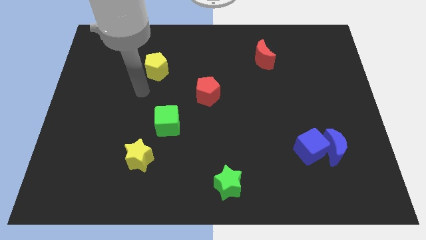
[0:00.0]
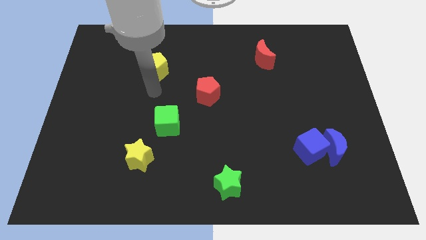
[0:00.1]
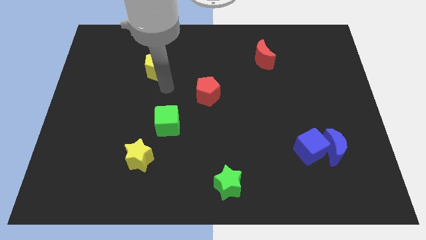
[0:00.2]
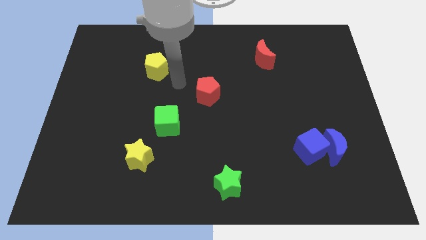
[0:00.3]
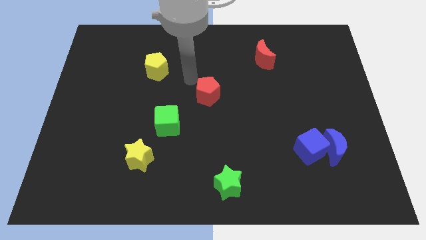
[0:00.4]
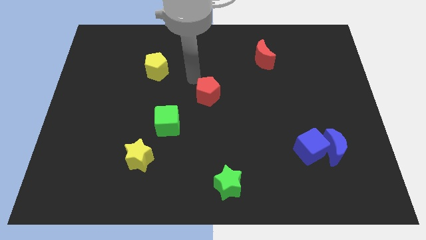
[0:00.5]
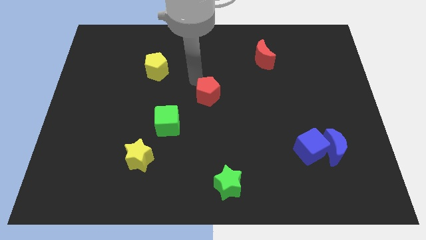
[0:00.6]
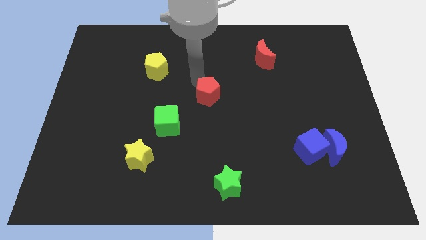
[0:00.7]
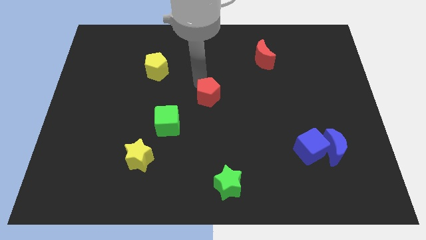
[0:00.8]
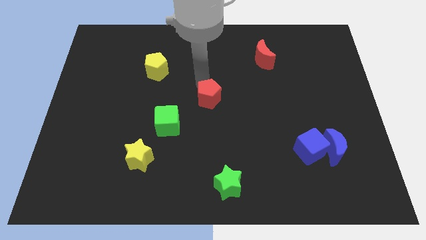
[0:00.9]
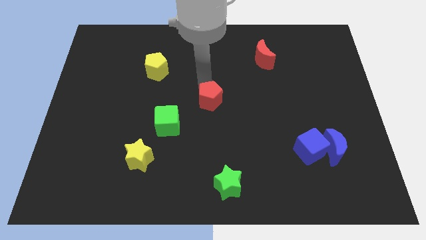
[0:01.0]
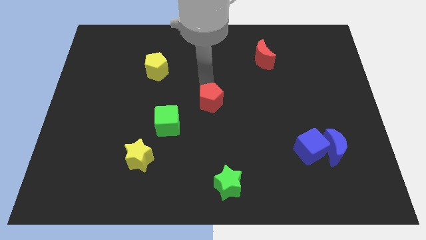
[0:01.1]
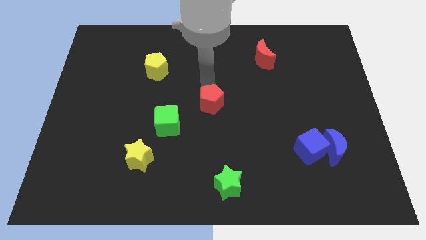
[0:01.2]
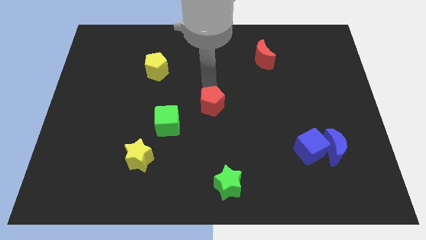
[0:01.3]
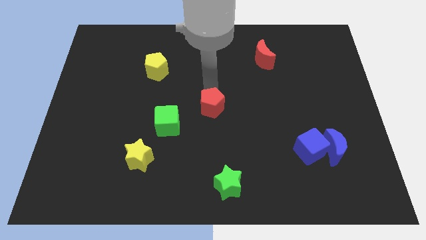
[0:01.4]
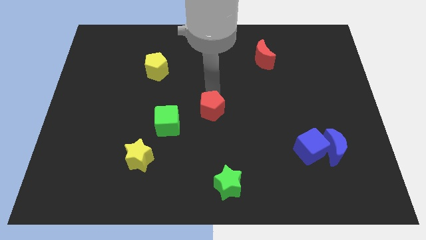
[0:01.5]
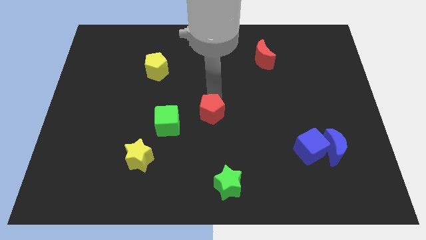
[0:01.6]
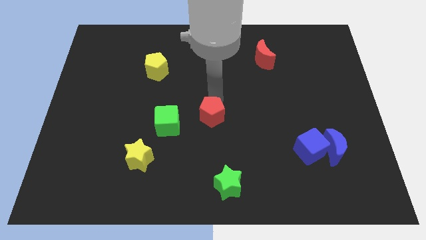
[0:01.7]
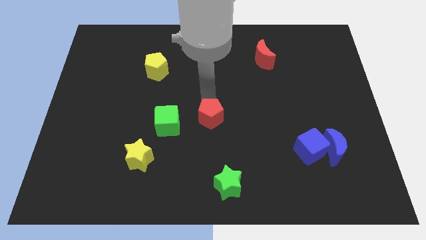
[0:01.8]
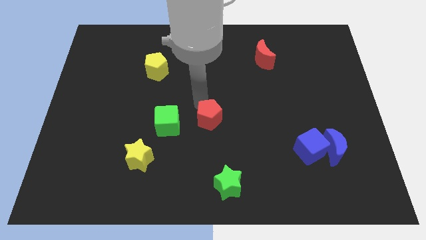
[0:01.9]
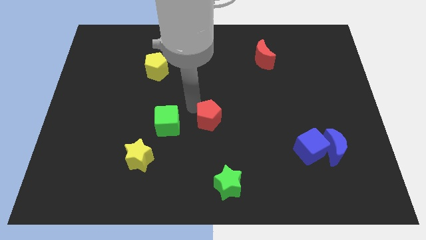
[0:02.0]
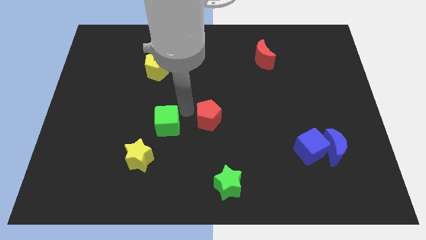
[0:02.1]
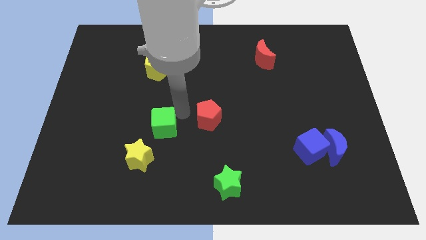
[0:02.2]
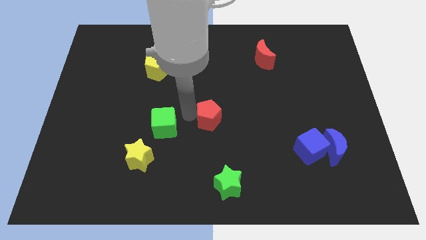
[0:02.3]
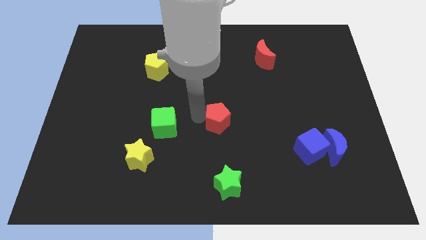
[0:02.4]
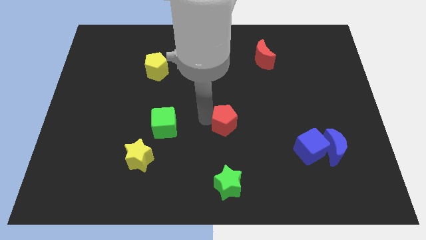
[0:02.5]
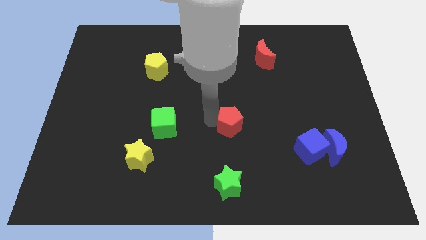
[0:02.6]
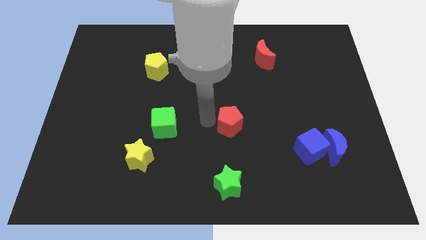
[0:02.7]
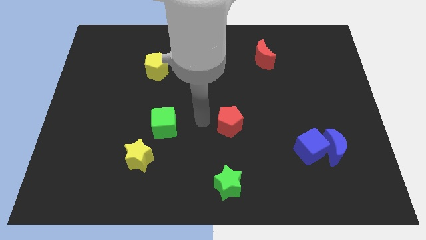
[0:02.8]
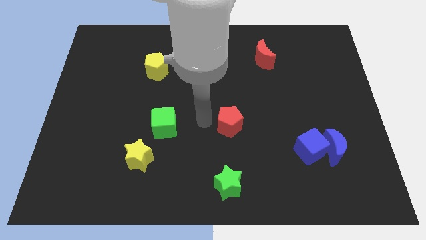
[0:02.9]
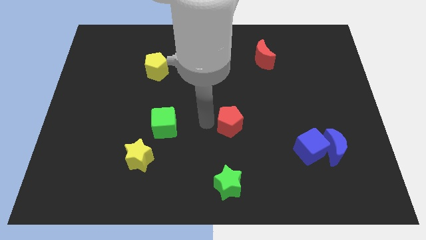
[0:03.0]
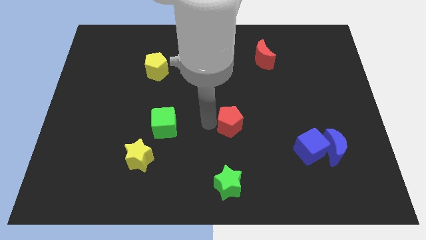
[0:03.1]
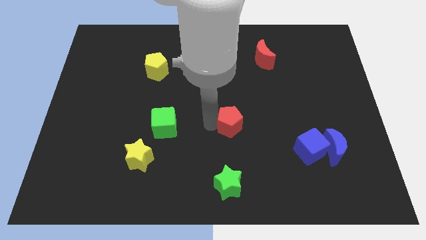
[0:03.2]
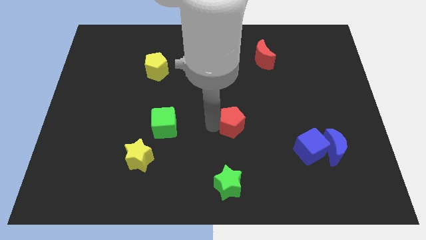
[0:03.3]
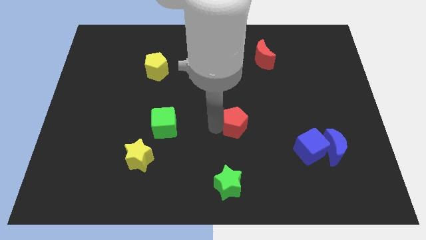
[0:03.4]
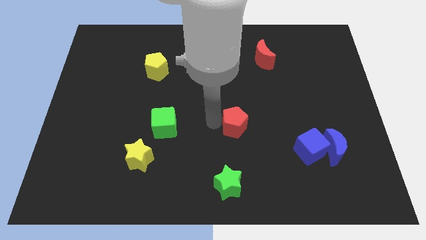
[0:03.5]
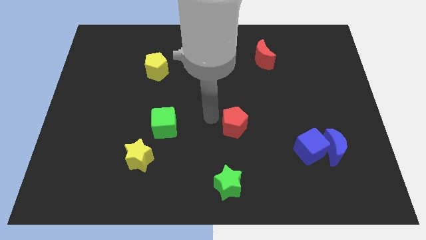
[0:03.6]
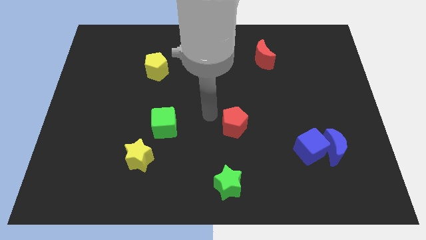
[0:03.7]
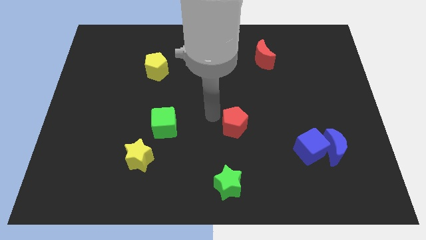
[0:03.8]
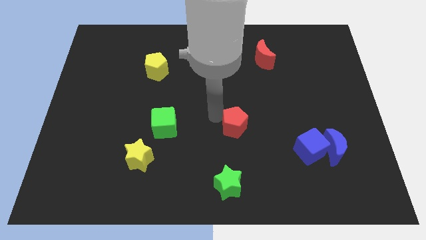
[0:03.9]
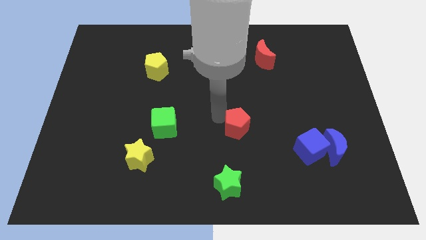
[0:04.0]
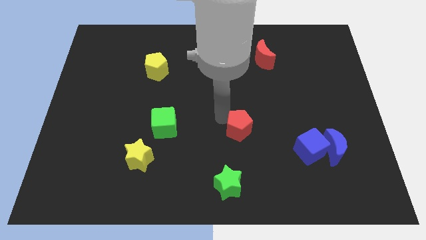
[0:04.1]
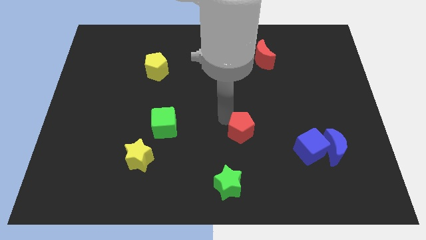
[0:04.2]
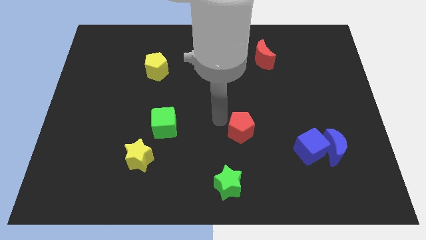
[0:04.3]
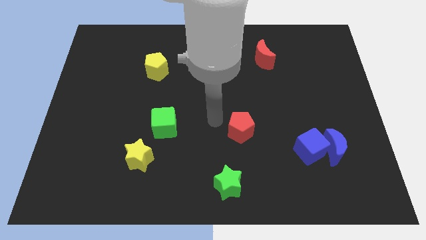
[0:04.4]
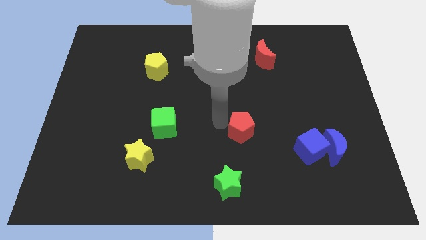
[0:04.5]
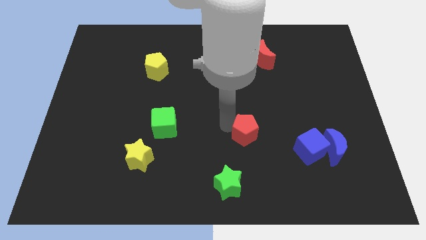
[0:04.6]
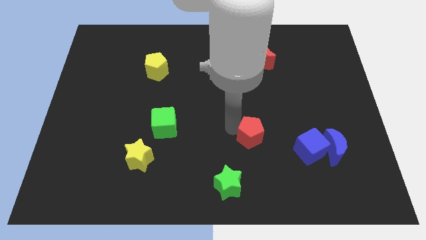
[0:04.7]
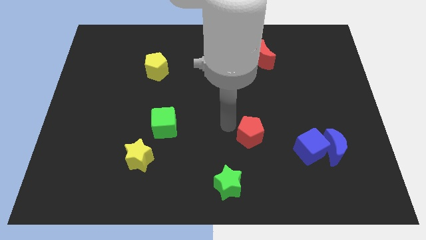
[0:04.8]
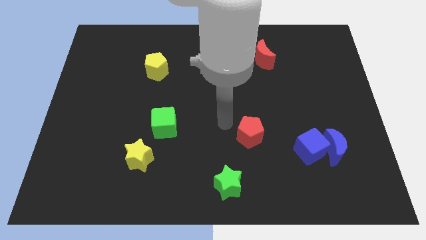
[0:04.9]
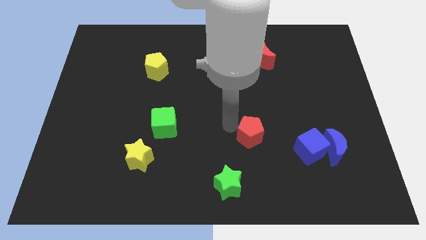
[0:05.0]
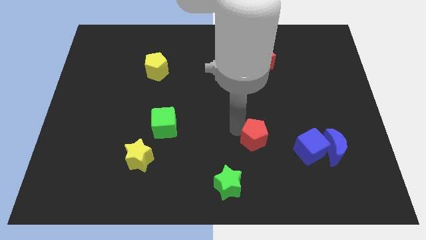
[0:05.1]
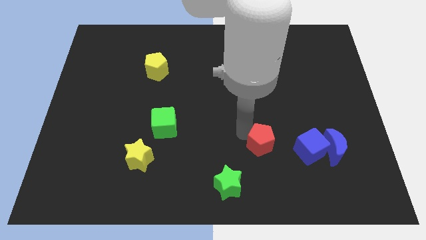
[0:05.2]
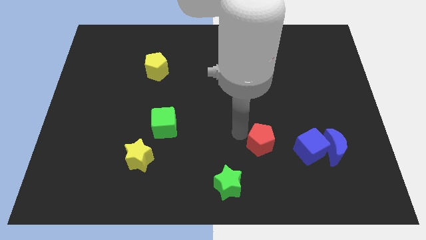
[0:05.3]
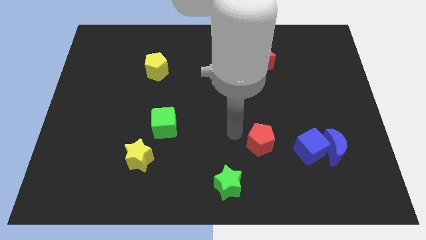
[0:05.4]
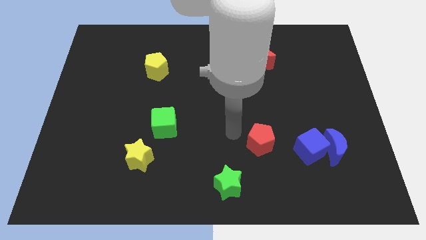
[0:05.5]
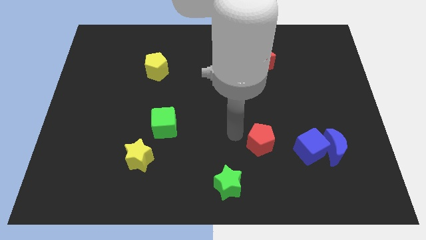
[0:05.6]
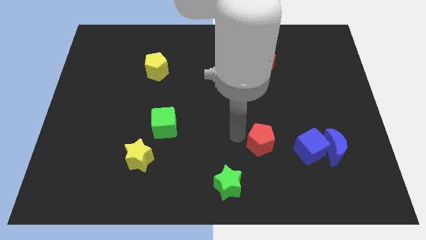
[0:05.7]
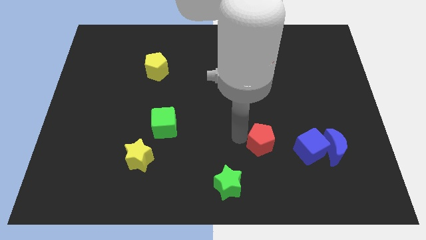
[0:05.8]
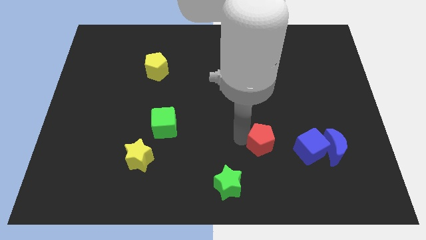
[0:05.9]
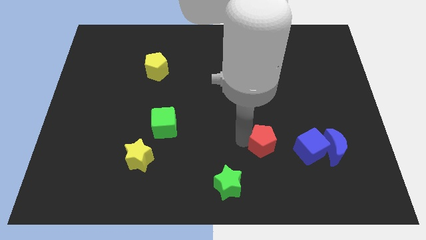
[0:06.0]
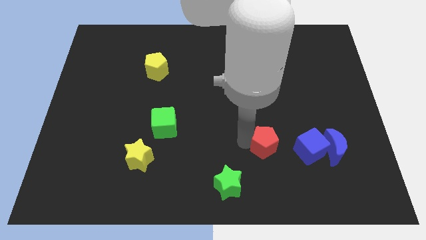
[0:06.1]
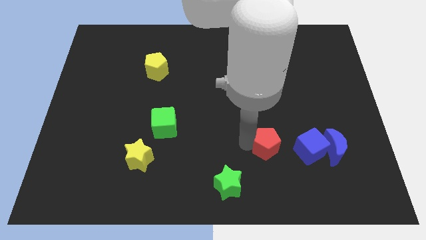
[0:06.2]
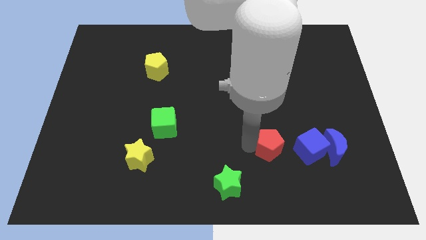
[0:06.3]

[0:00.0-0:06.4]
push the red pentagon down and to the right

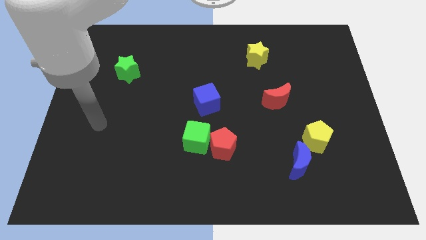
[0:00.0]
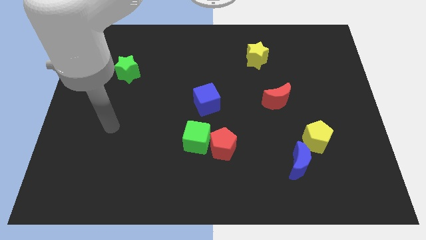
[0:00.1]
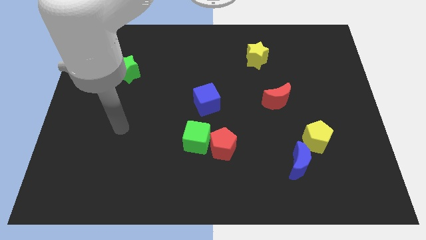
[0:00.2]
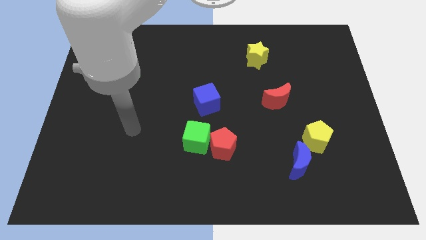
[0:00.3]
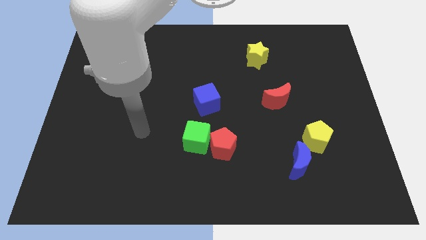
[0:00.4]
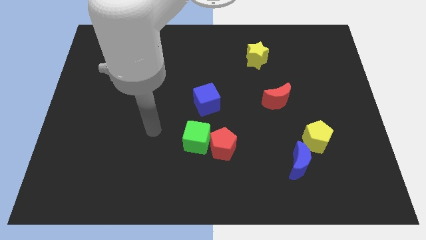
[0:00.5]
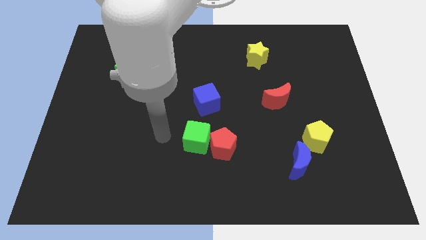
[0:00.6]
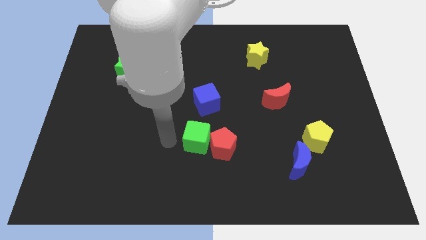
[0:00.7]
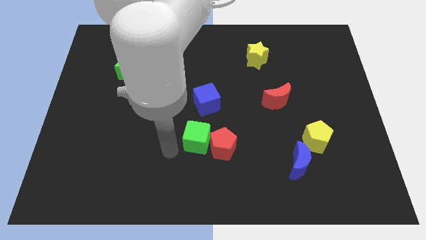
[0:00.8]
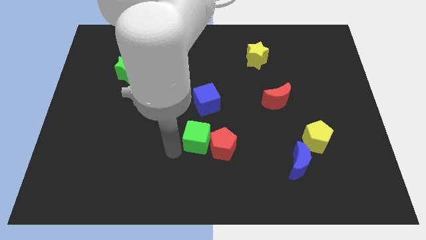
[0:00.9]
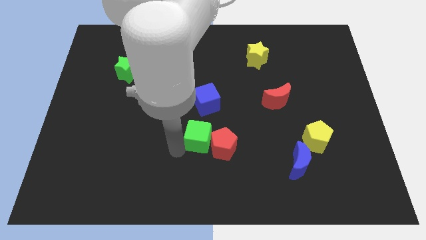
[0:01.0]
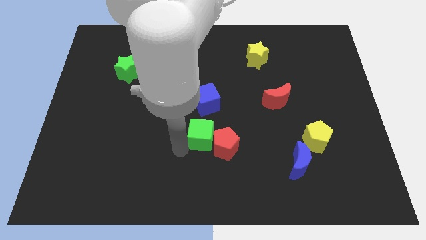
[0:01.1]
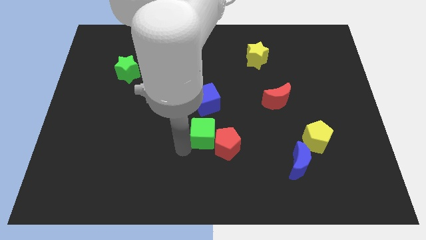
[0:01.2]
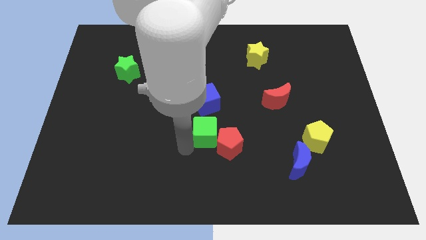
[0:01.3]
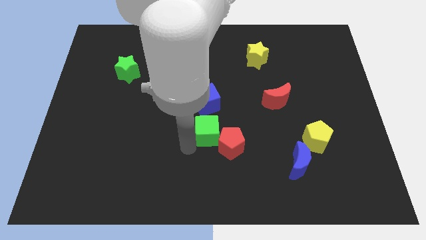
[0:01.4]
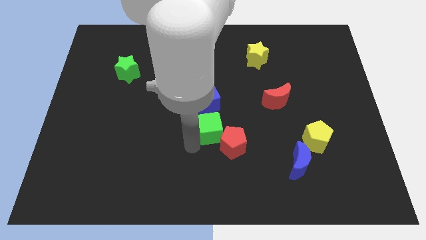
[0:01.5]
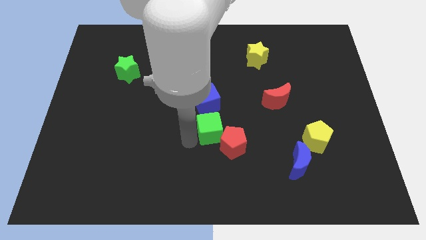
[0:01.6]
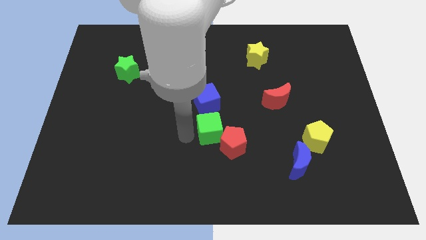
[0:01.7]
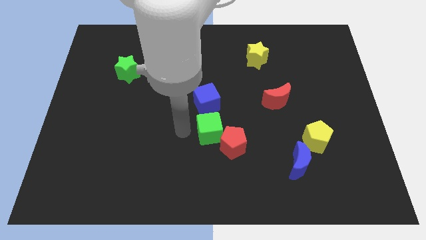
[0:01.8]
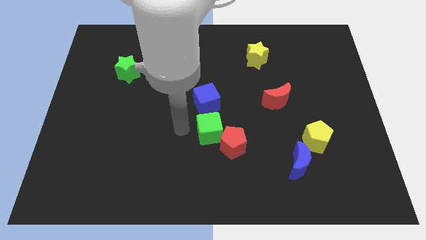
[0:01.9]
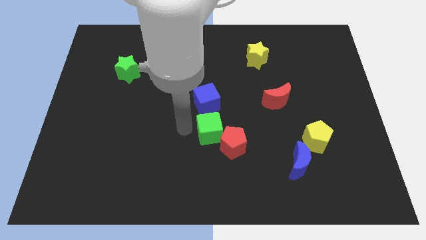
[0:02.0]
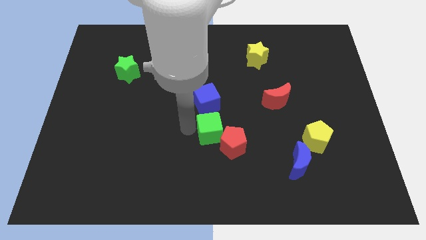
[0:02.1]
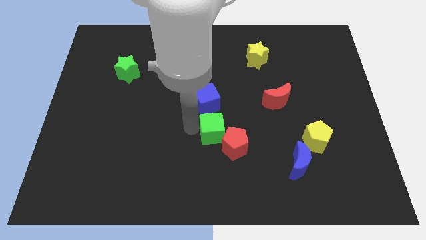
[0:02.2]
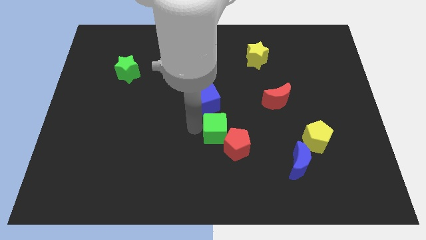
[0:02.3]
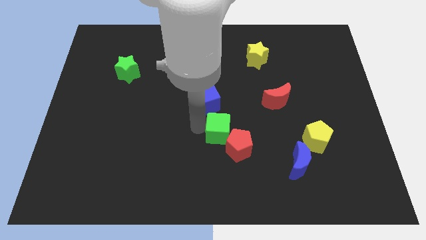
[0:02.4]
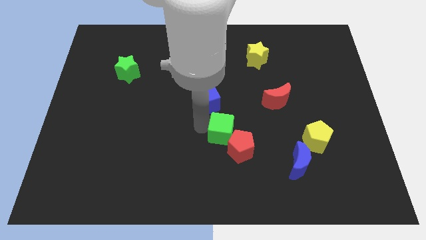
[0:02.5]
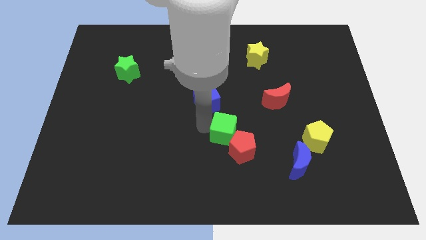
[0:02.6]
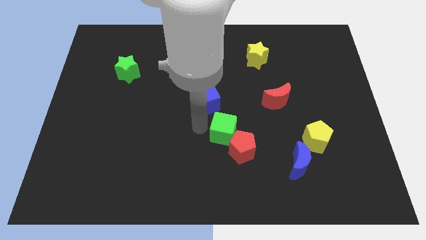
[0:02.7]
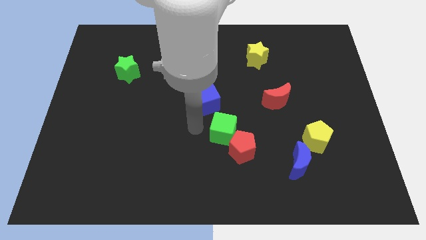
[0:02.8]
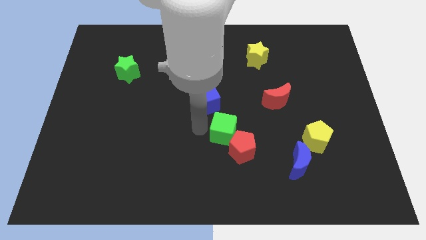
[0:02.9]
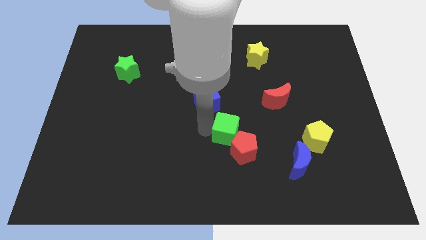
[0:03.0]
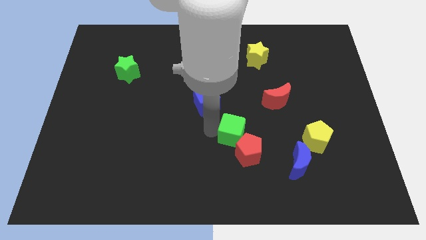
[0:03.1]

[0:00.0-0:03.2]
slightly slide the green cube right
